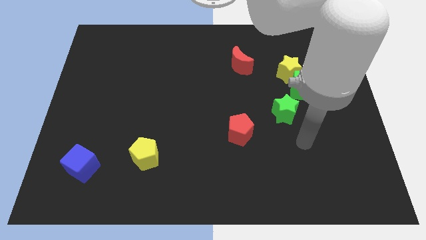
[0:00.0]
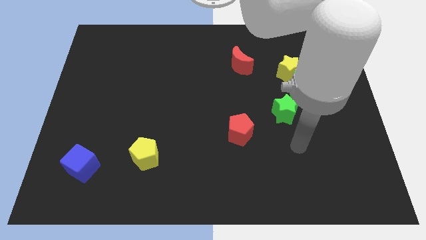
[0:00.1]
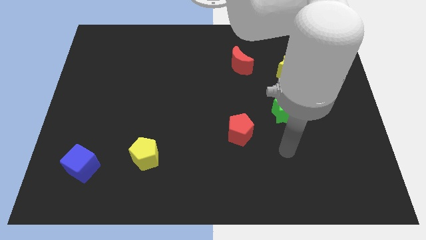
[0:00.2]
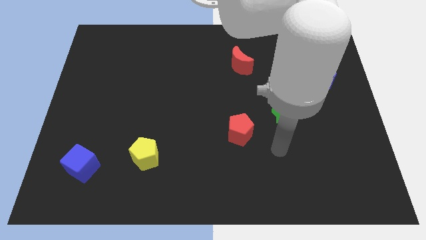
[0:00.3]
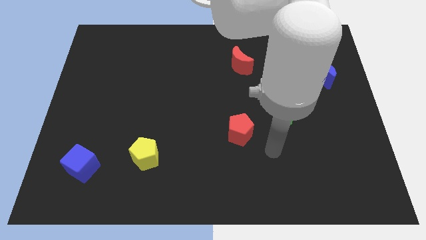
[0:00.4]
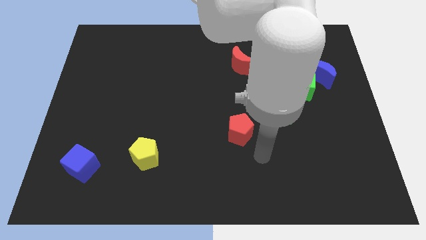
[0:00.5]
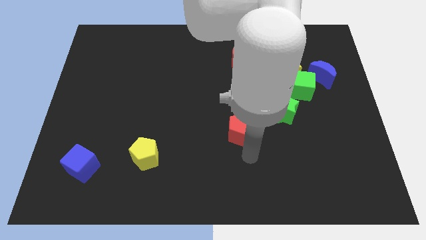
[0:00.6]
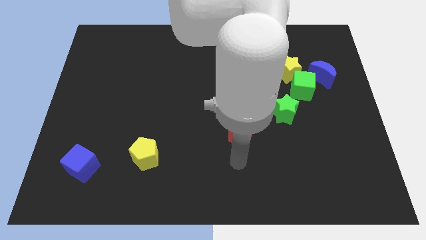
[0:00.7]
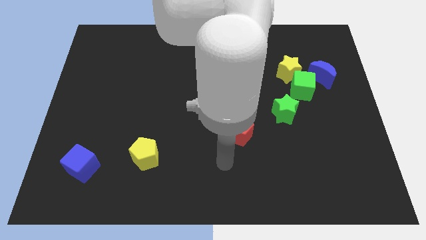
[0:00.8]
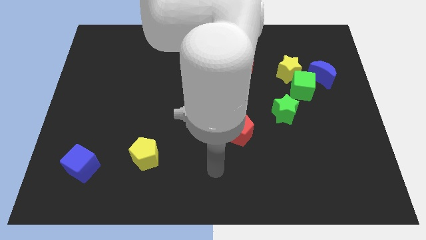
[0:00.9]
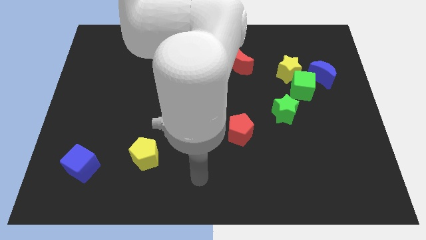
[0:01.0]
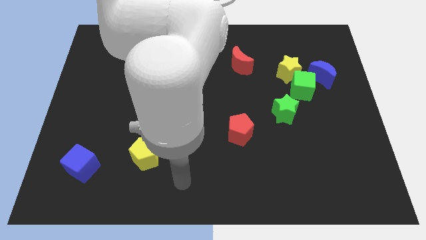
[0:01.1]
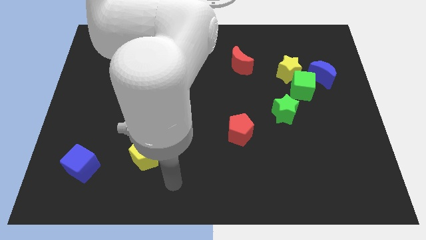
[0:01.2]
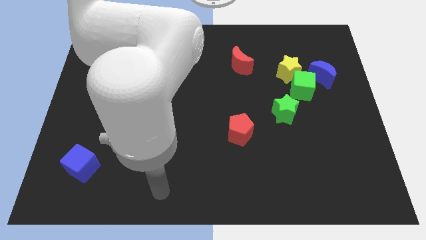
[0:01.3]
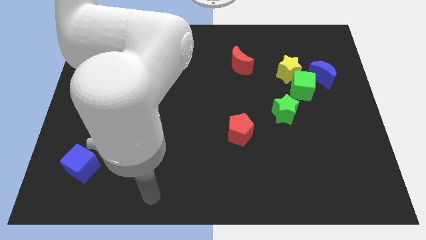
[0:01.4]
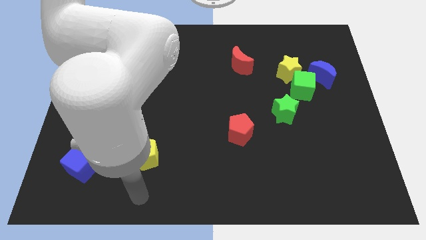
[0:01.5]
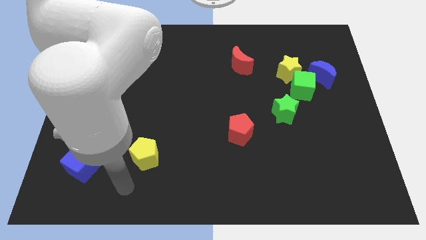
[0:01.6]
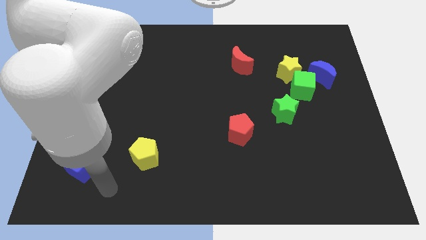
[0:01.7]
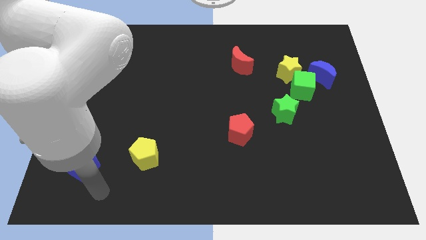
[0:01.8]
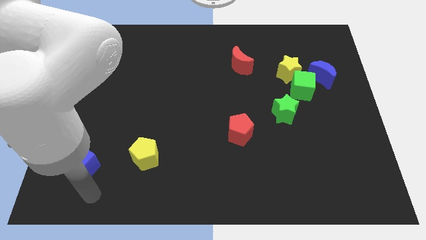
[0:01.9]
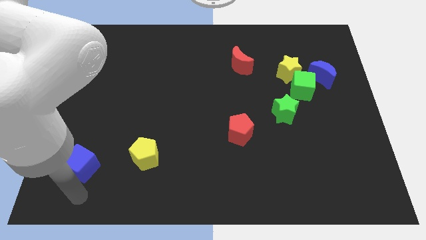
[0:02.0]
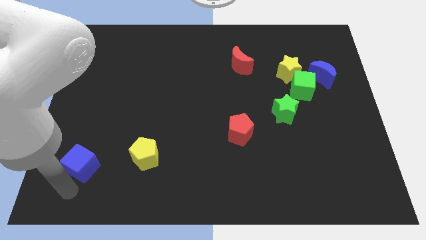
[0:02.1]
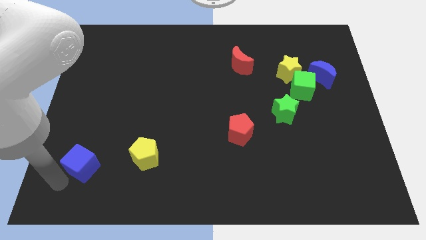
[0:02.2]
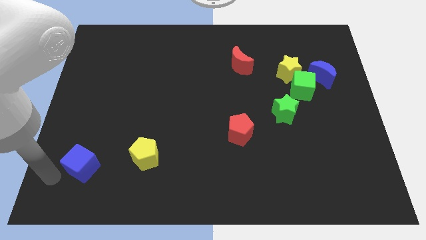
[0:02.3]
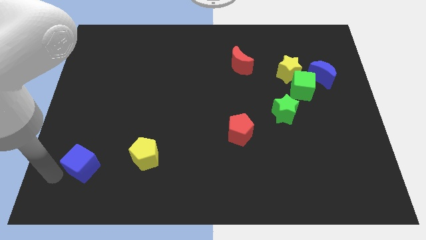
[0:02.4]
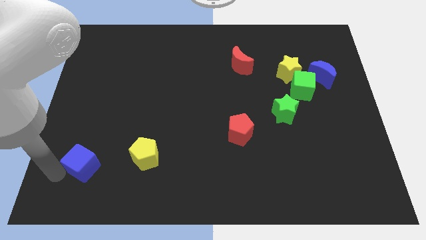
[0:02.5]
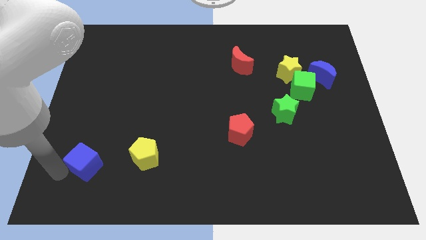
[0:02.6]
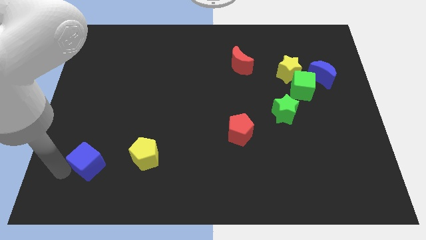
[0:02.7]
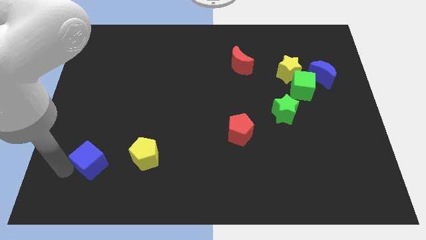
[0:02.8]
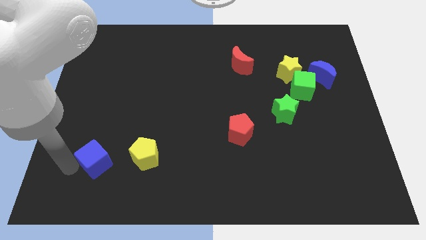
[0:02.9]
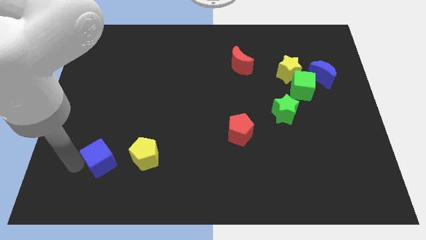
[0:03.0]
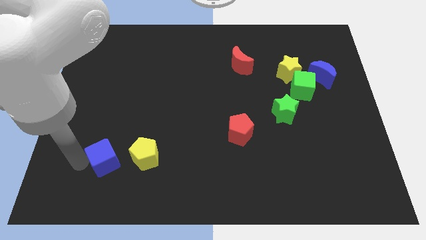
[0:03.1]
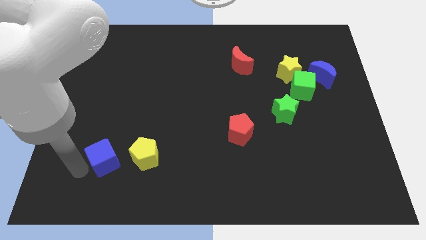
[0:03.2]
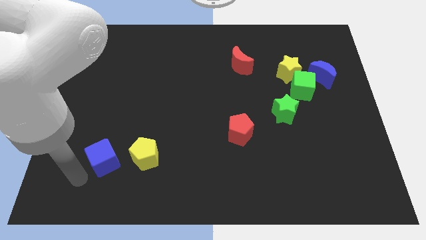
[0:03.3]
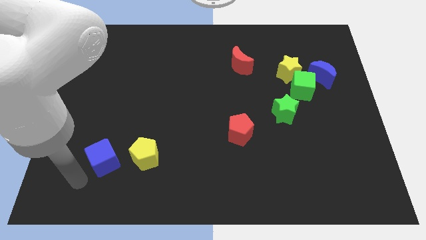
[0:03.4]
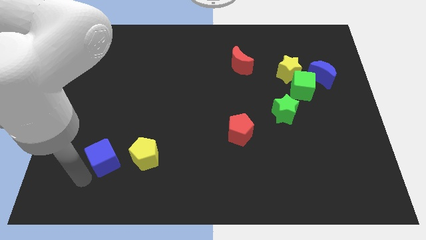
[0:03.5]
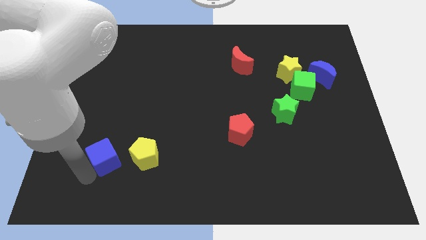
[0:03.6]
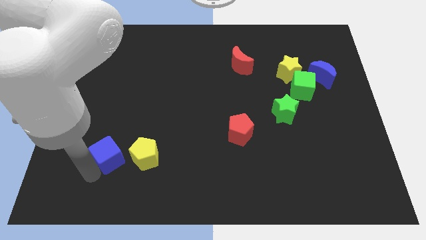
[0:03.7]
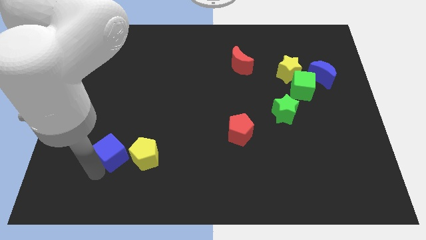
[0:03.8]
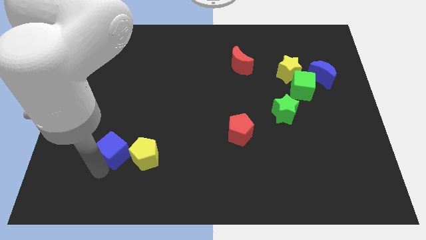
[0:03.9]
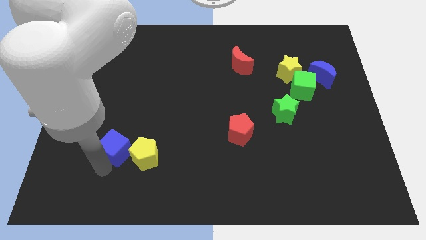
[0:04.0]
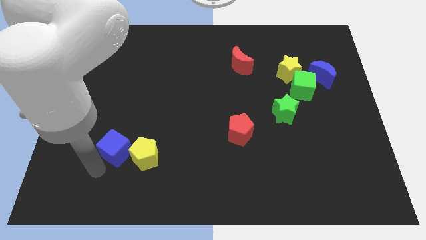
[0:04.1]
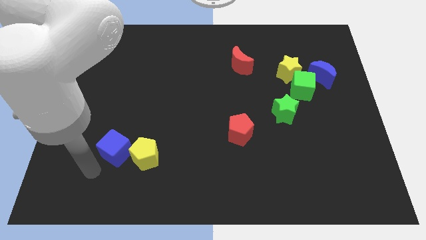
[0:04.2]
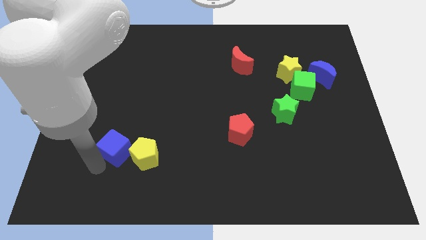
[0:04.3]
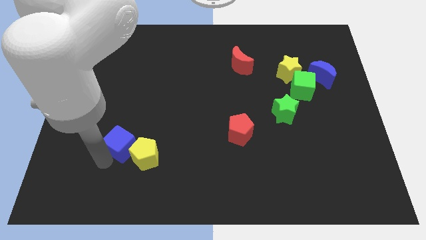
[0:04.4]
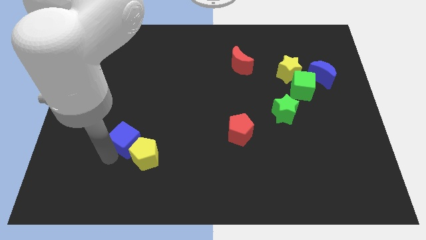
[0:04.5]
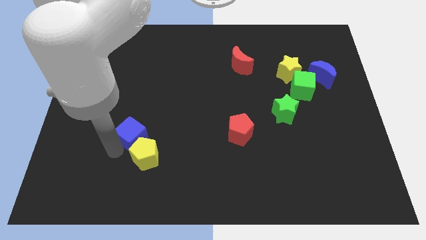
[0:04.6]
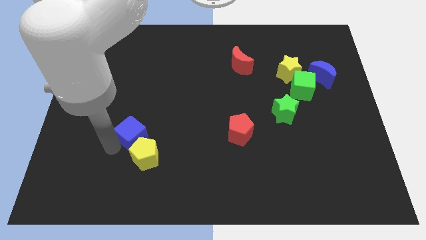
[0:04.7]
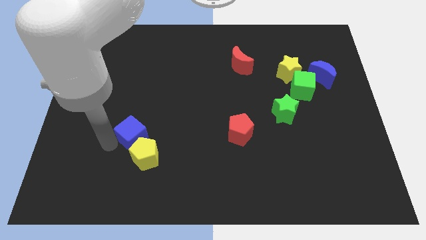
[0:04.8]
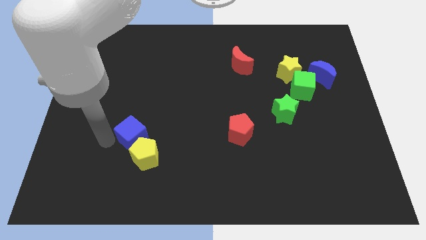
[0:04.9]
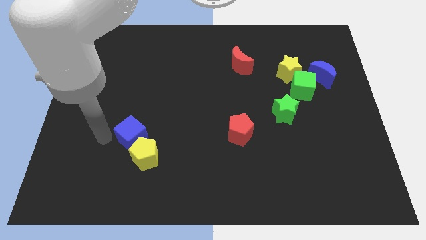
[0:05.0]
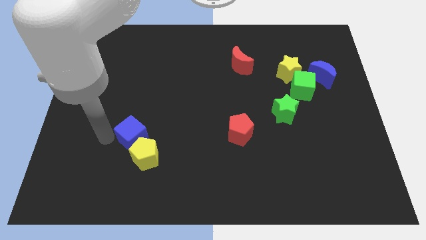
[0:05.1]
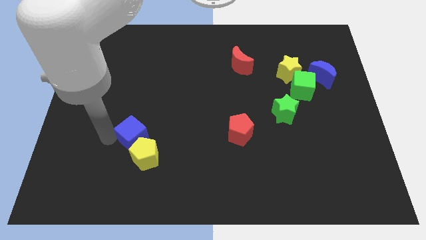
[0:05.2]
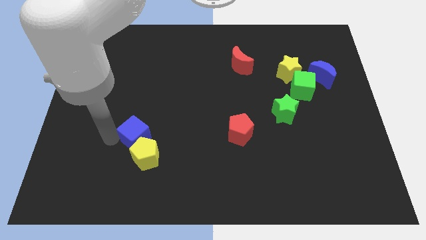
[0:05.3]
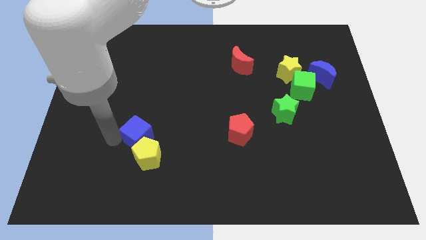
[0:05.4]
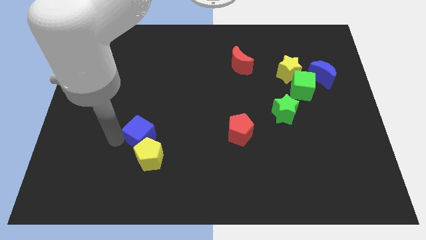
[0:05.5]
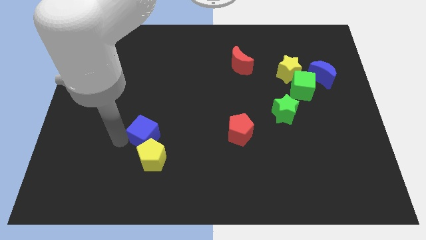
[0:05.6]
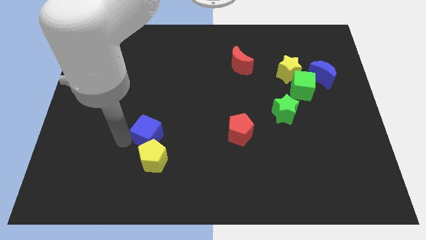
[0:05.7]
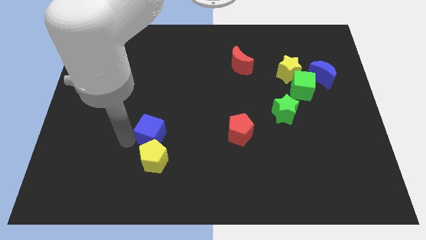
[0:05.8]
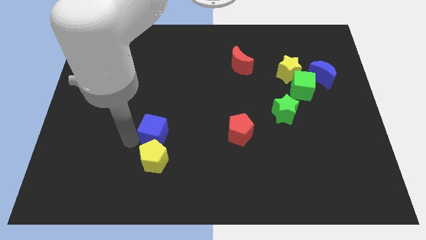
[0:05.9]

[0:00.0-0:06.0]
put the blue cube to the top right of the yellow pentagon
